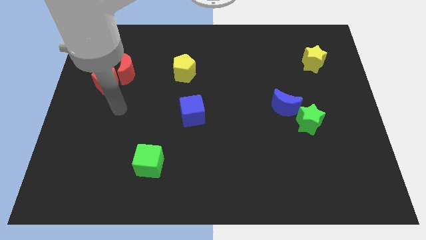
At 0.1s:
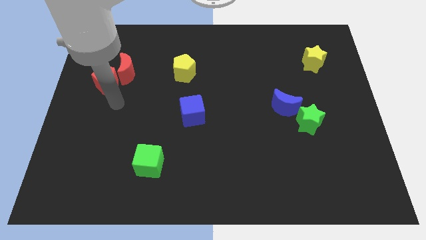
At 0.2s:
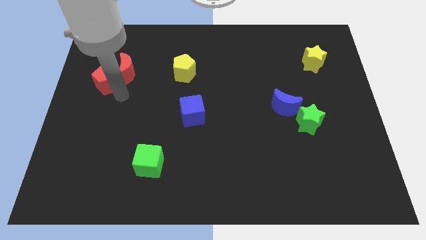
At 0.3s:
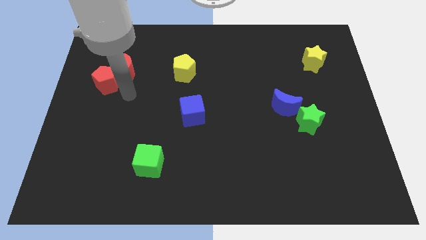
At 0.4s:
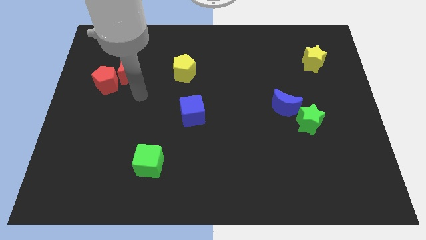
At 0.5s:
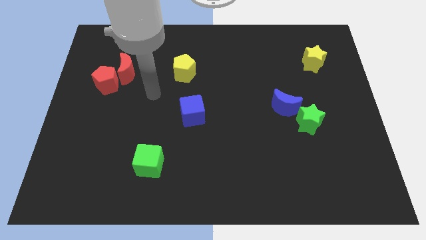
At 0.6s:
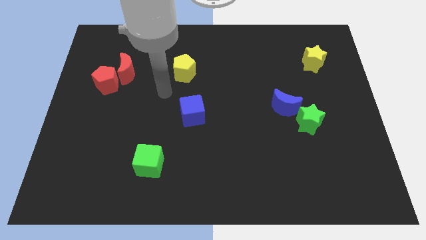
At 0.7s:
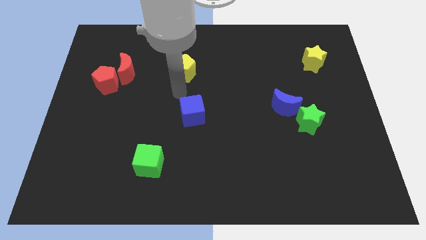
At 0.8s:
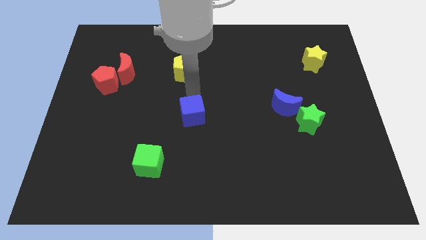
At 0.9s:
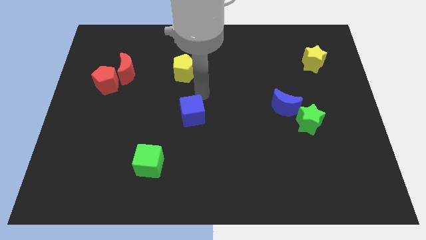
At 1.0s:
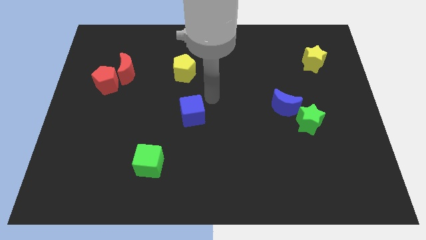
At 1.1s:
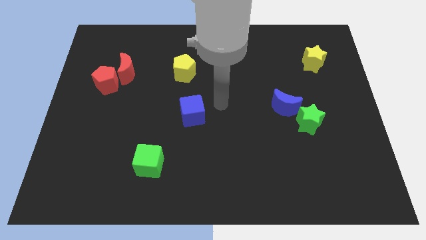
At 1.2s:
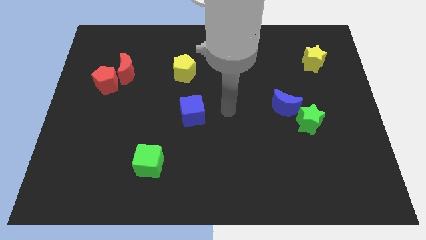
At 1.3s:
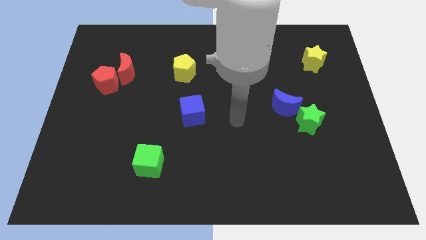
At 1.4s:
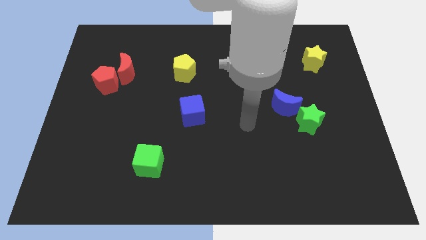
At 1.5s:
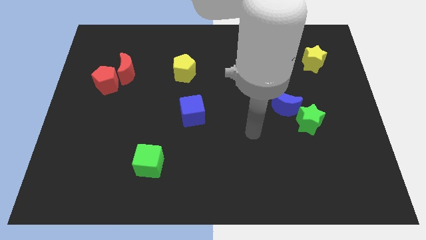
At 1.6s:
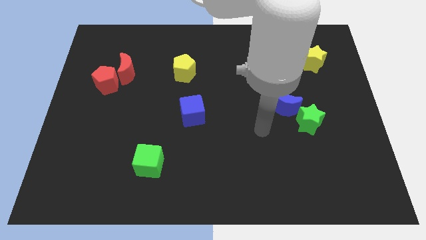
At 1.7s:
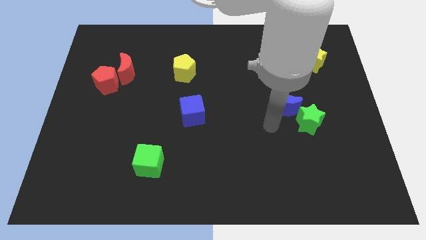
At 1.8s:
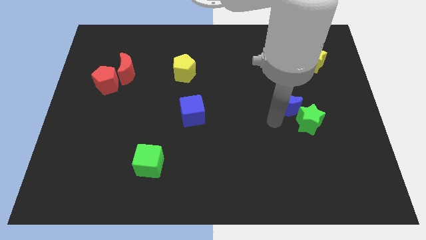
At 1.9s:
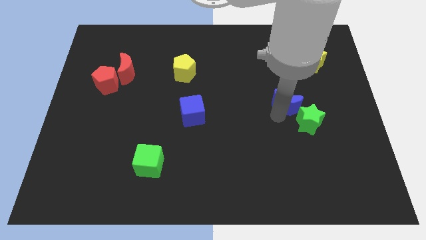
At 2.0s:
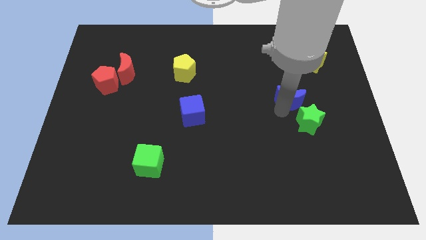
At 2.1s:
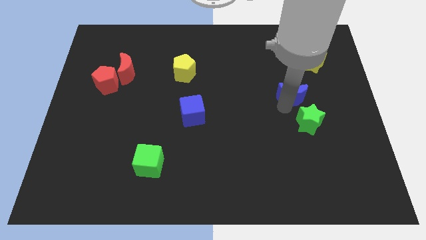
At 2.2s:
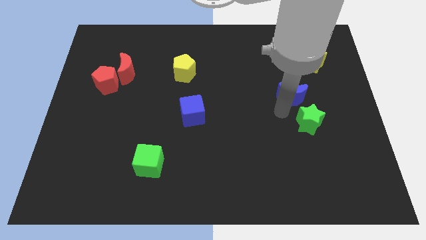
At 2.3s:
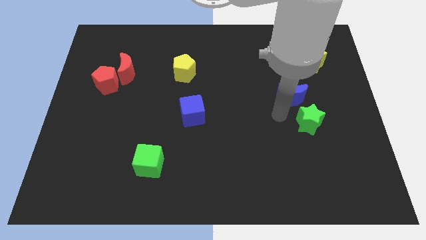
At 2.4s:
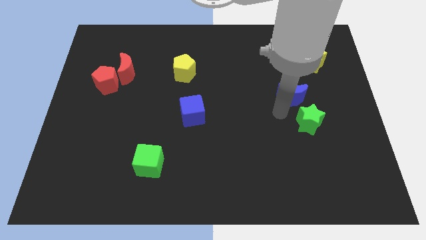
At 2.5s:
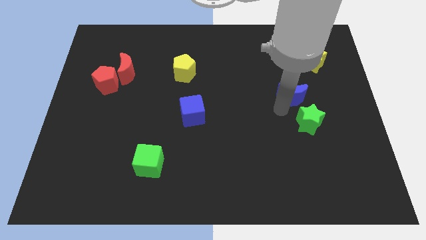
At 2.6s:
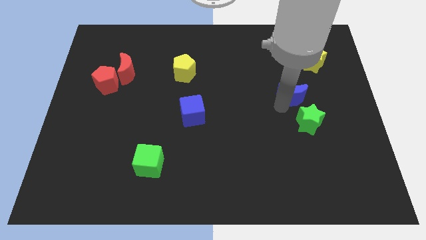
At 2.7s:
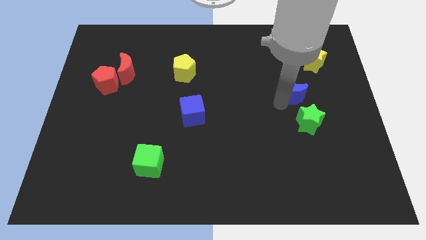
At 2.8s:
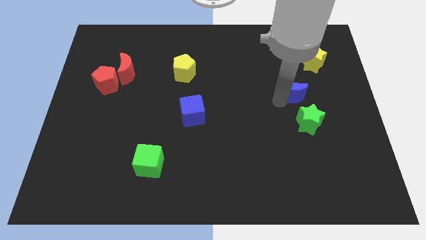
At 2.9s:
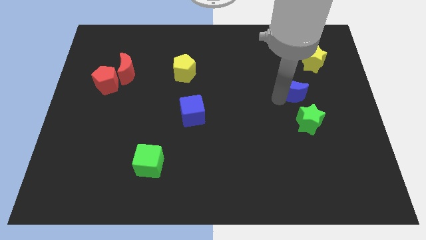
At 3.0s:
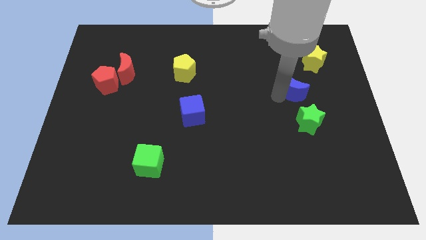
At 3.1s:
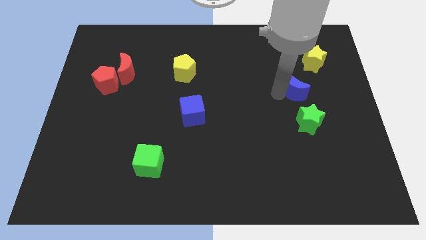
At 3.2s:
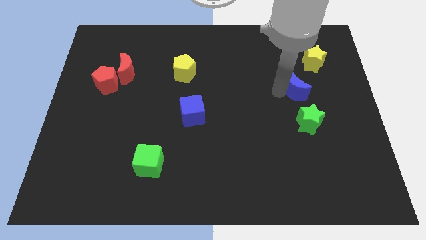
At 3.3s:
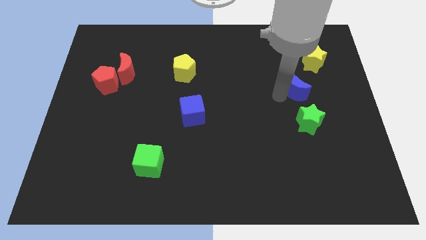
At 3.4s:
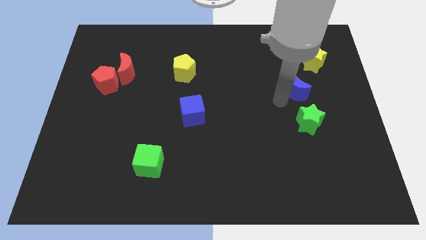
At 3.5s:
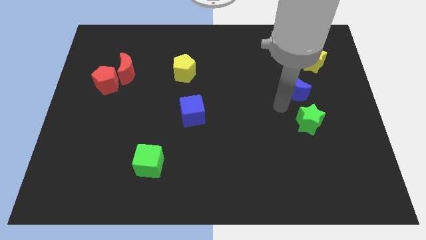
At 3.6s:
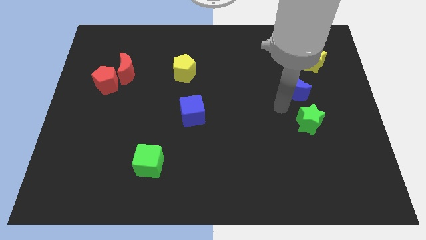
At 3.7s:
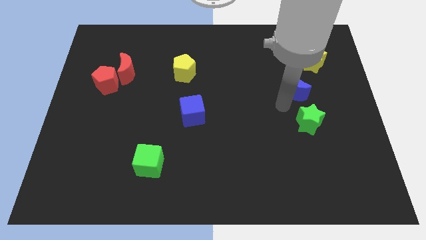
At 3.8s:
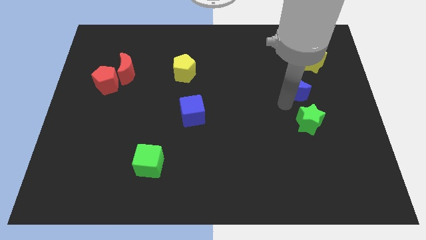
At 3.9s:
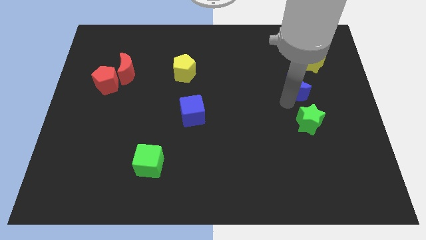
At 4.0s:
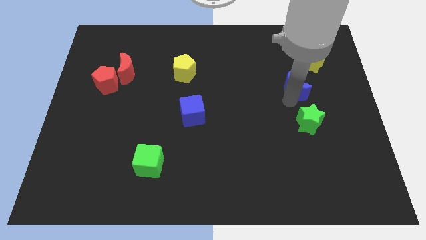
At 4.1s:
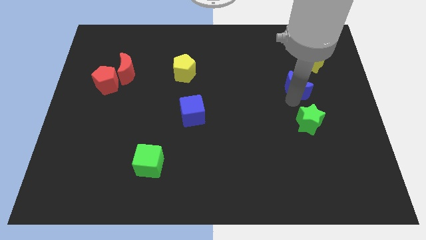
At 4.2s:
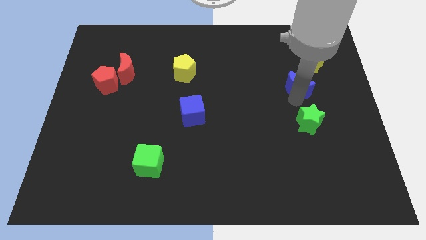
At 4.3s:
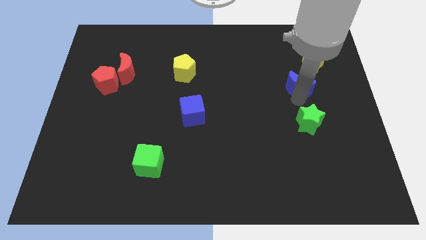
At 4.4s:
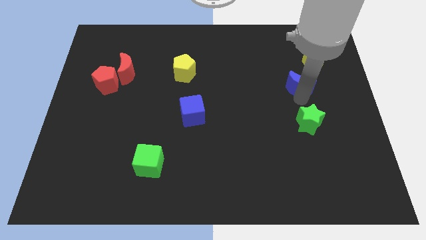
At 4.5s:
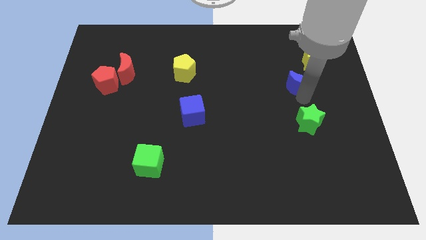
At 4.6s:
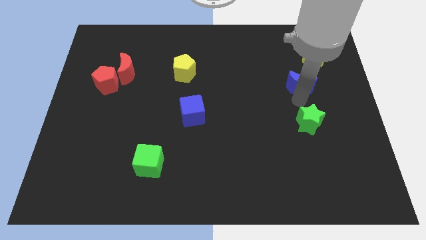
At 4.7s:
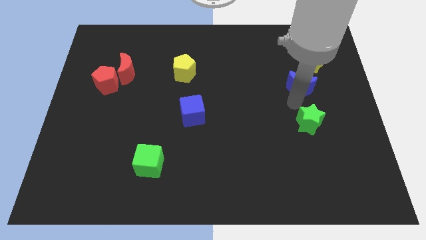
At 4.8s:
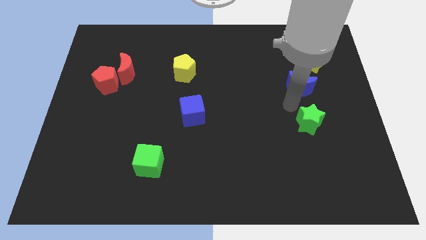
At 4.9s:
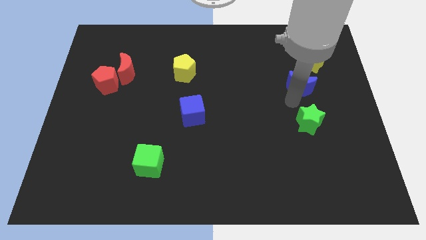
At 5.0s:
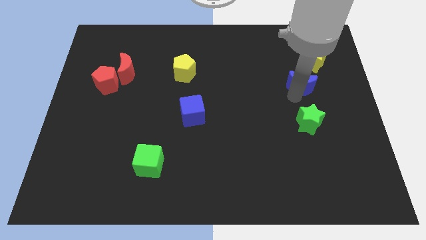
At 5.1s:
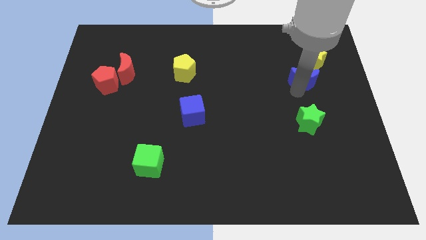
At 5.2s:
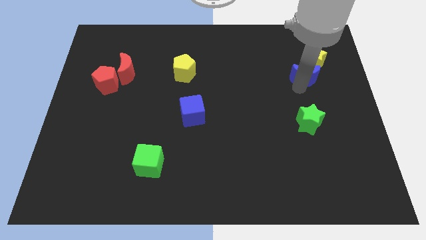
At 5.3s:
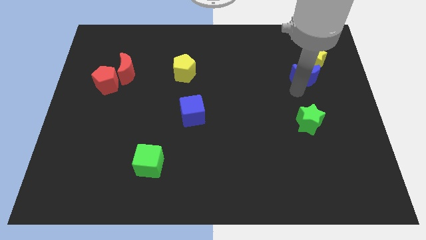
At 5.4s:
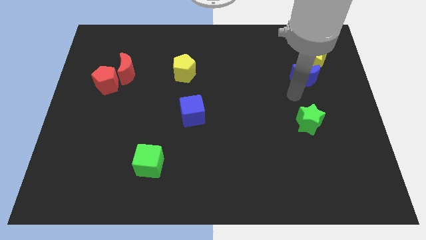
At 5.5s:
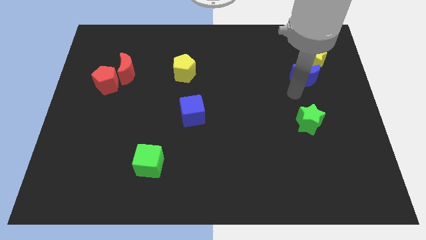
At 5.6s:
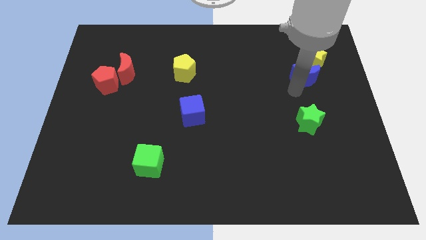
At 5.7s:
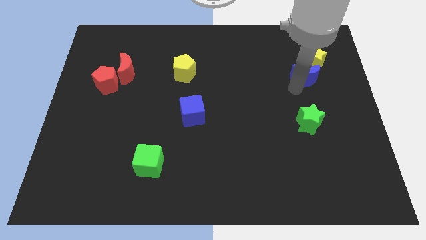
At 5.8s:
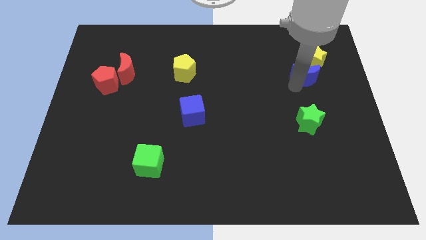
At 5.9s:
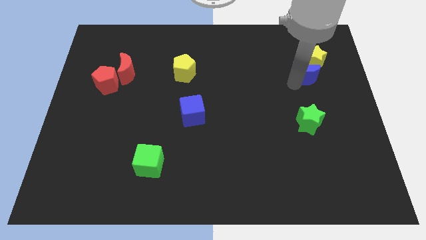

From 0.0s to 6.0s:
put the blue moon close to the yellow star

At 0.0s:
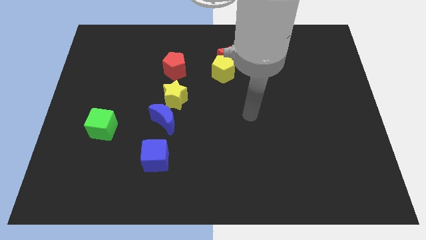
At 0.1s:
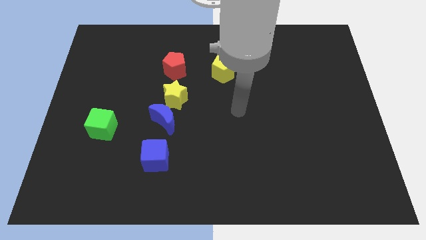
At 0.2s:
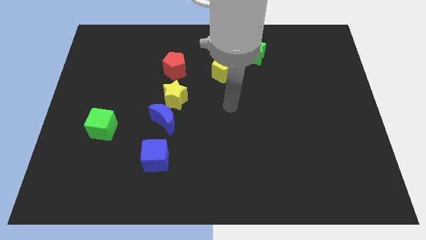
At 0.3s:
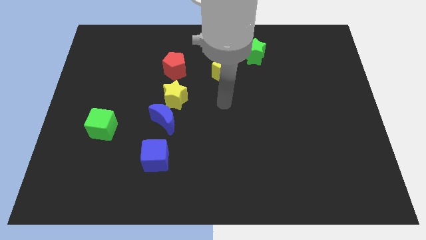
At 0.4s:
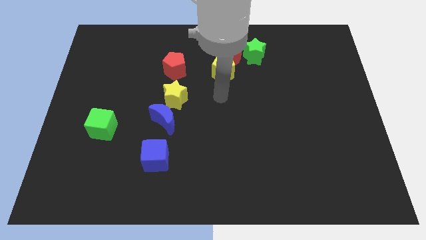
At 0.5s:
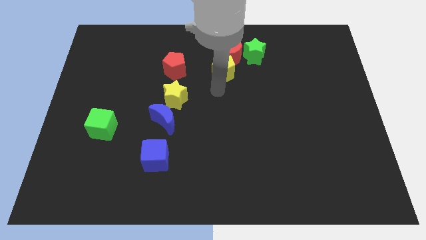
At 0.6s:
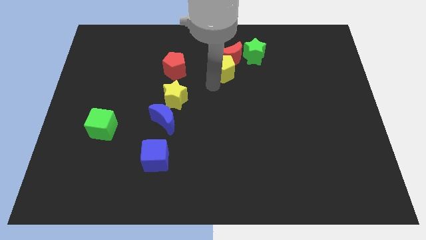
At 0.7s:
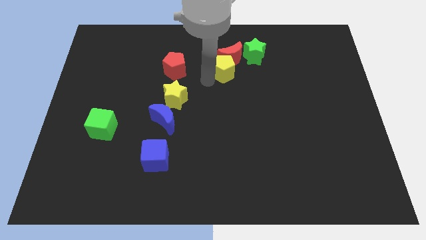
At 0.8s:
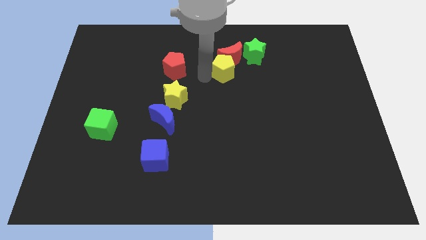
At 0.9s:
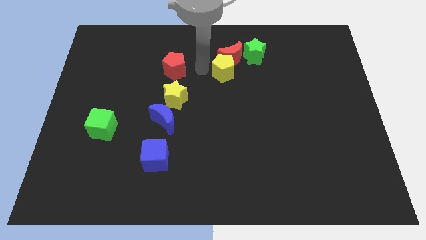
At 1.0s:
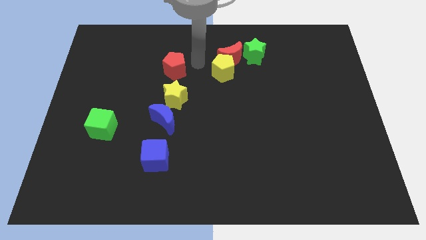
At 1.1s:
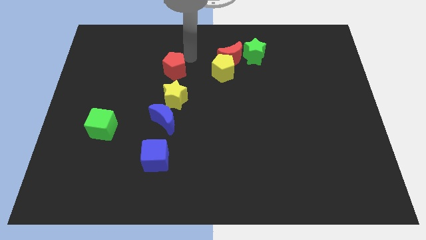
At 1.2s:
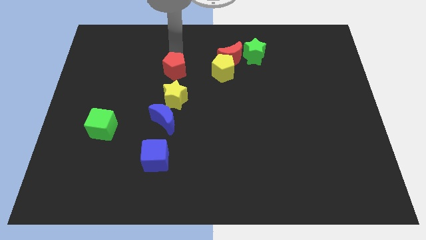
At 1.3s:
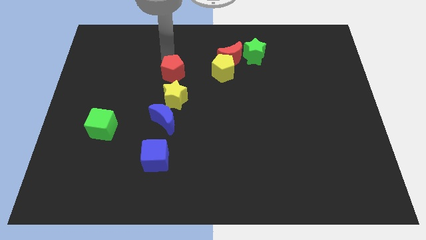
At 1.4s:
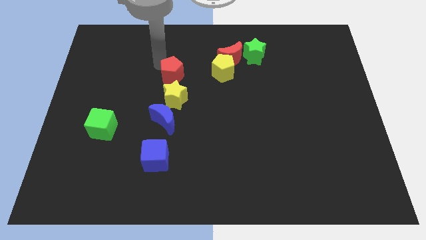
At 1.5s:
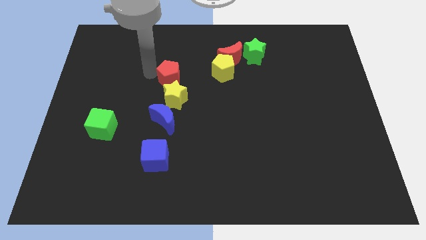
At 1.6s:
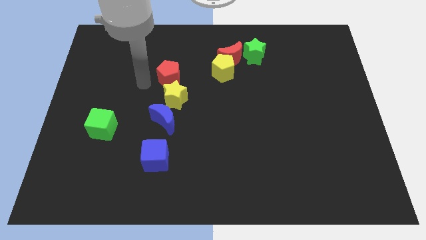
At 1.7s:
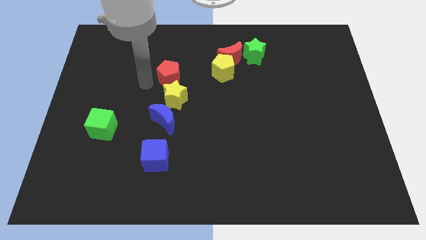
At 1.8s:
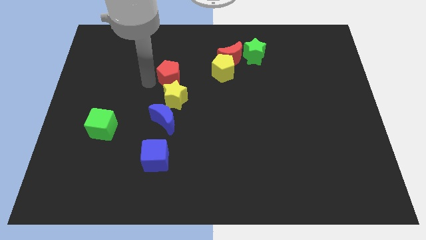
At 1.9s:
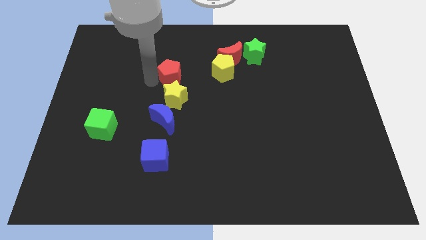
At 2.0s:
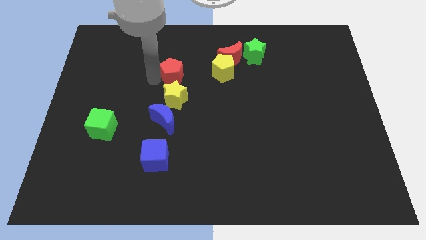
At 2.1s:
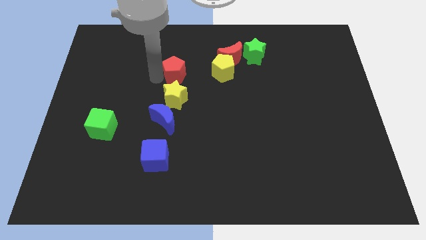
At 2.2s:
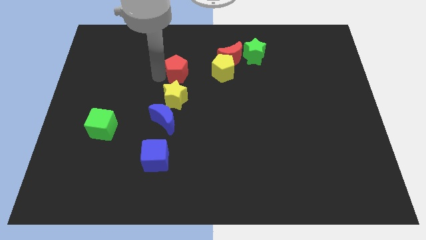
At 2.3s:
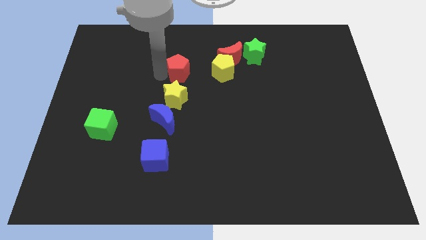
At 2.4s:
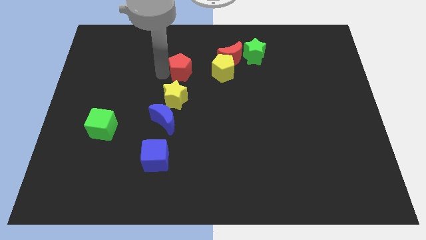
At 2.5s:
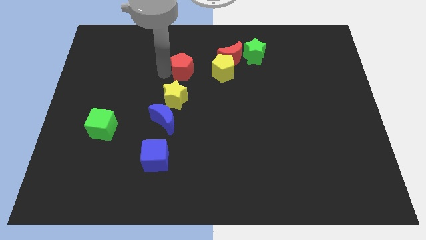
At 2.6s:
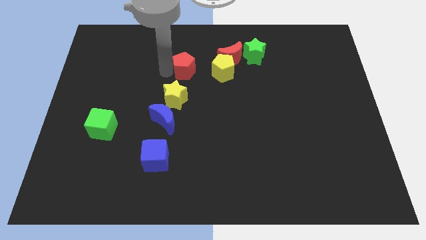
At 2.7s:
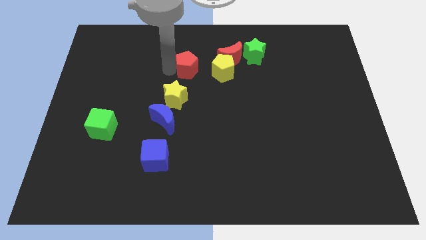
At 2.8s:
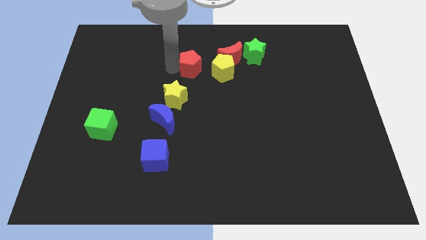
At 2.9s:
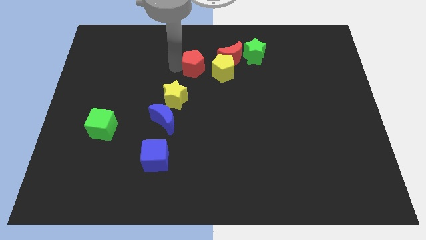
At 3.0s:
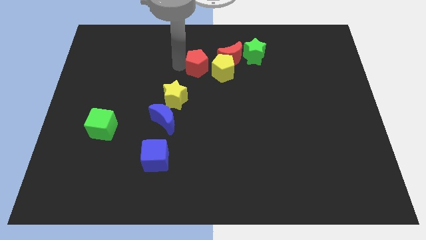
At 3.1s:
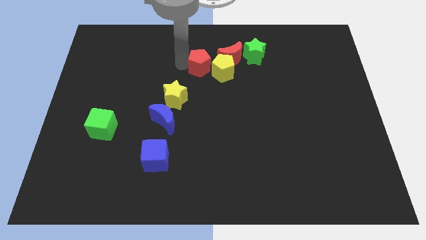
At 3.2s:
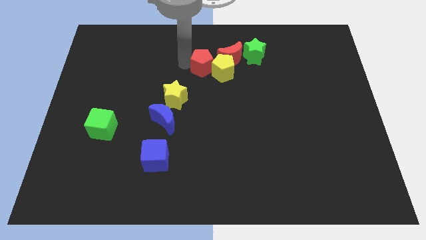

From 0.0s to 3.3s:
move the red pentagon to the yellow pentagon
